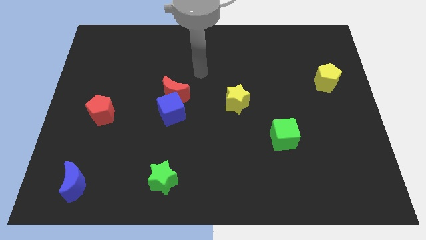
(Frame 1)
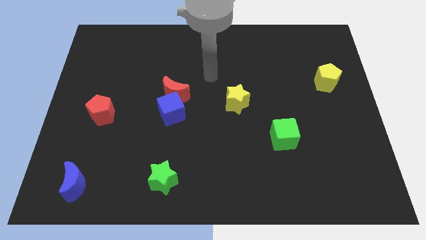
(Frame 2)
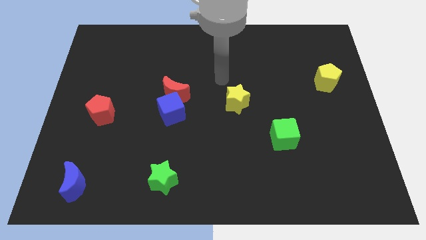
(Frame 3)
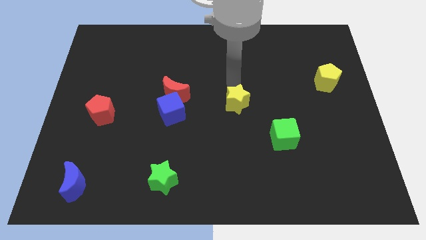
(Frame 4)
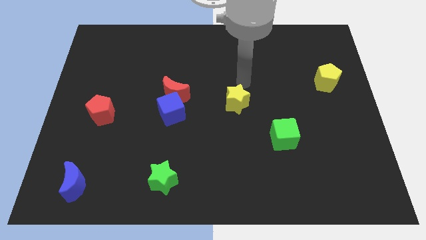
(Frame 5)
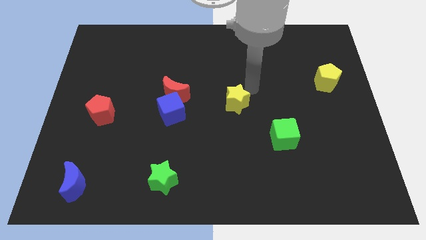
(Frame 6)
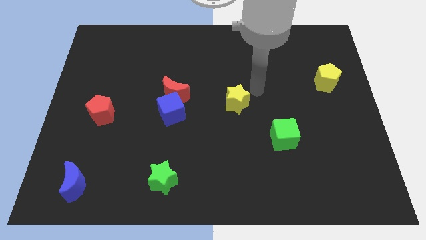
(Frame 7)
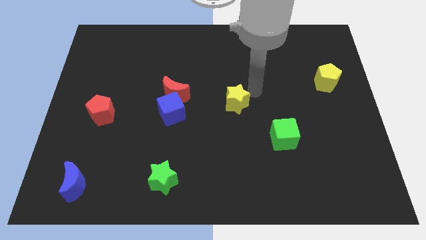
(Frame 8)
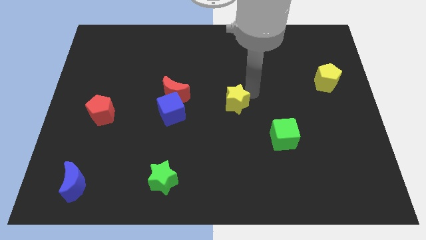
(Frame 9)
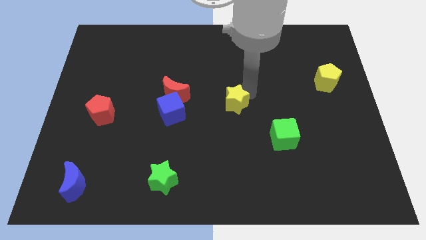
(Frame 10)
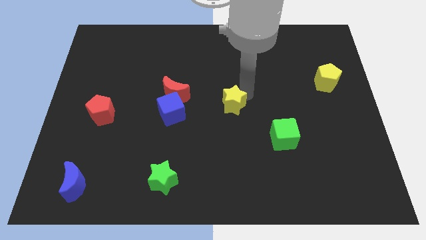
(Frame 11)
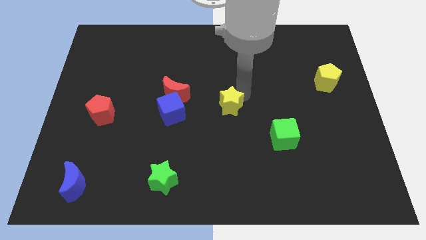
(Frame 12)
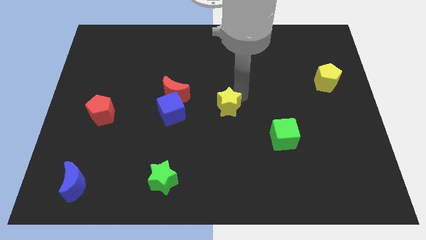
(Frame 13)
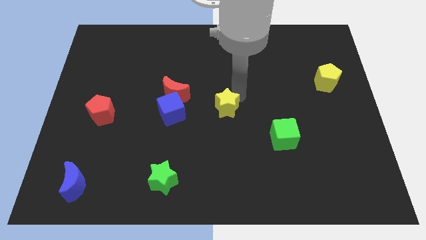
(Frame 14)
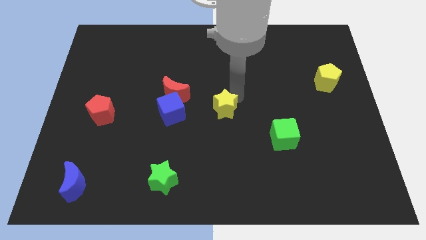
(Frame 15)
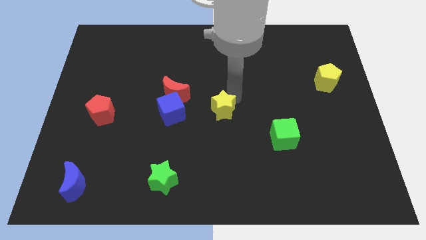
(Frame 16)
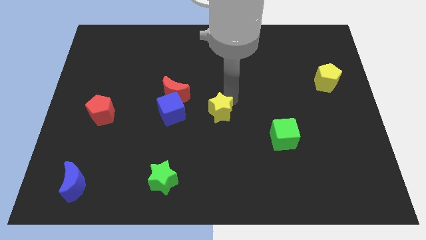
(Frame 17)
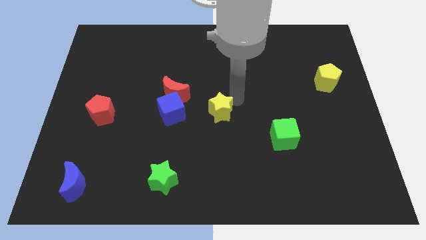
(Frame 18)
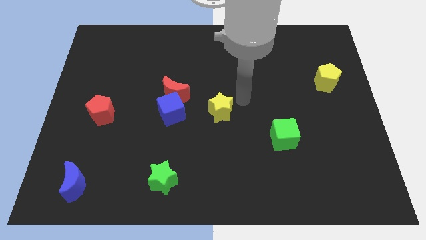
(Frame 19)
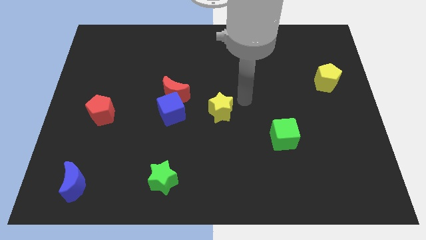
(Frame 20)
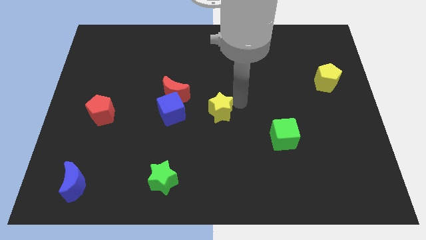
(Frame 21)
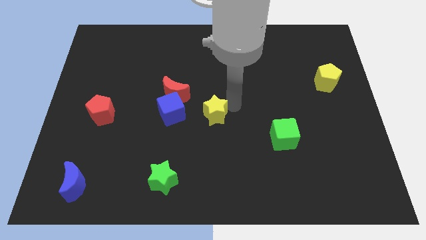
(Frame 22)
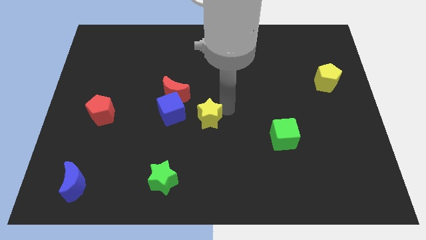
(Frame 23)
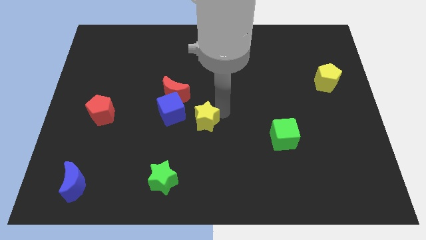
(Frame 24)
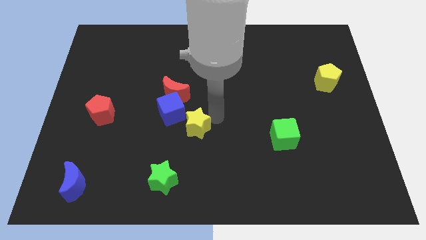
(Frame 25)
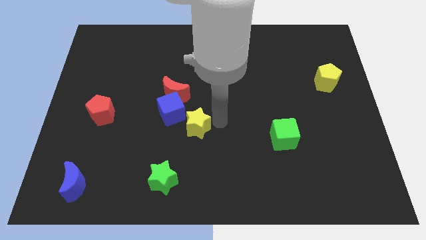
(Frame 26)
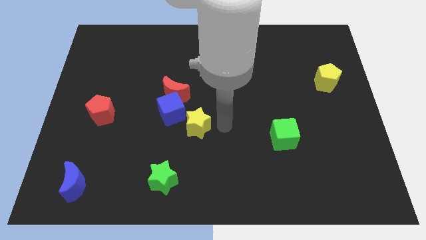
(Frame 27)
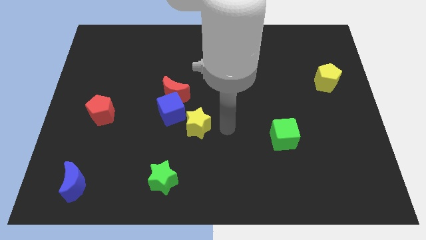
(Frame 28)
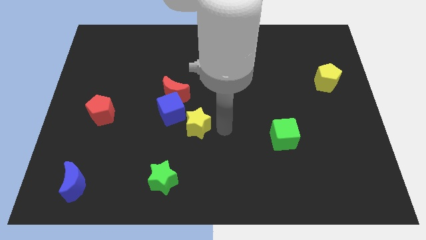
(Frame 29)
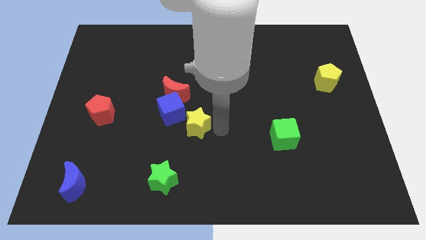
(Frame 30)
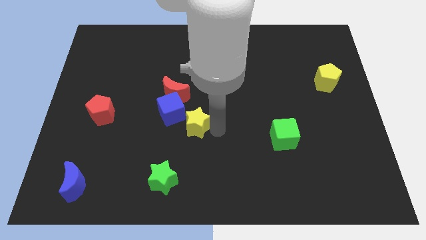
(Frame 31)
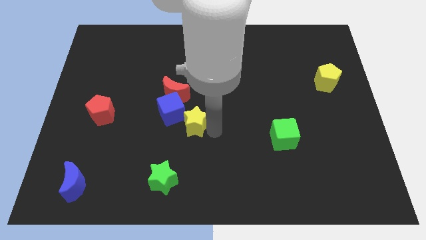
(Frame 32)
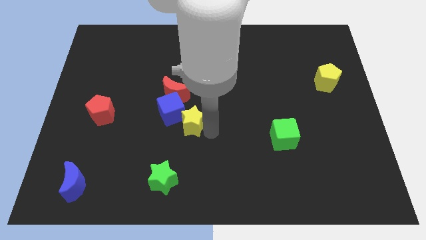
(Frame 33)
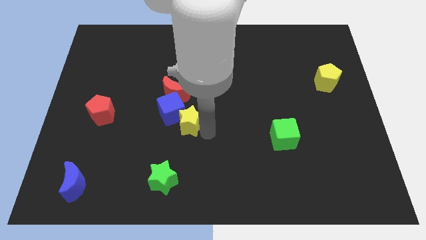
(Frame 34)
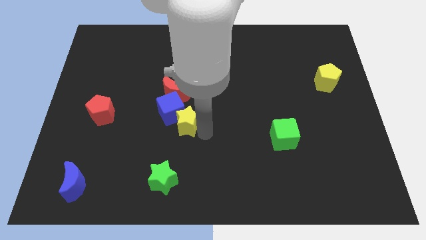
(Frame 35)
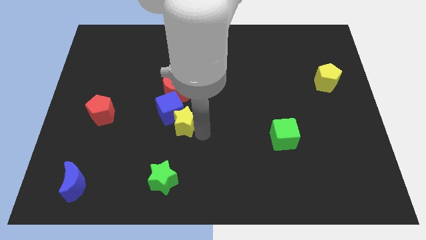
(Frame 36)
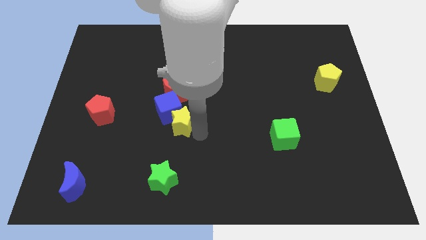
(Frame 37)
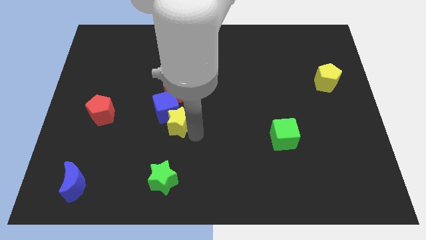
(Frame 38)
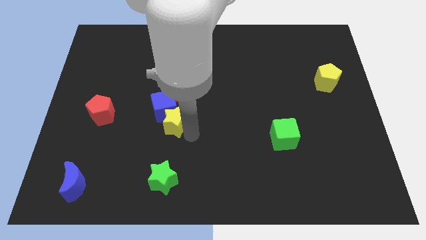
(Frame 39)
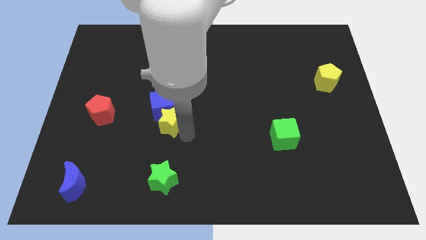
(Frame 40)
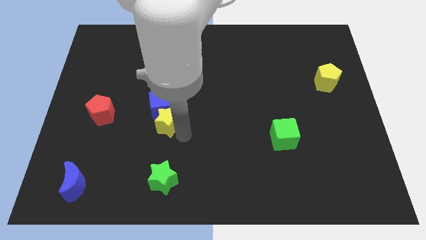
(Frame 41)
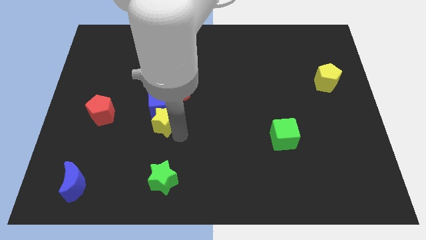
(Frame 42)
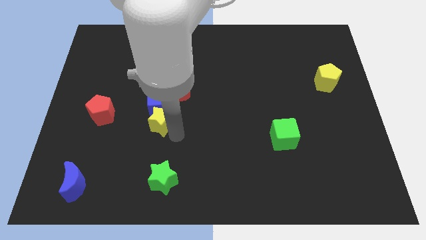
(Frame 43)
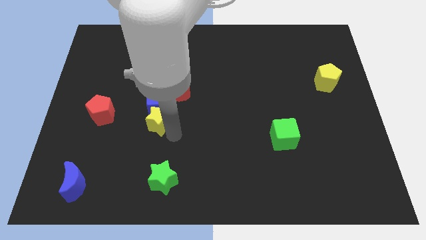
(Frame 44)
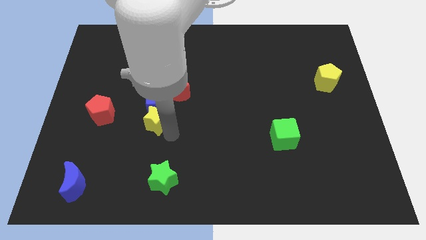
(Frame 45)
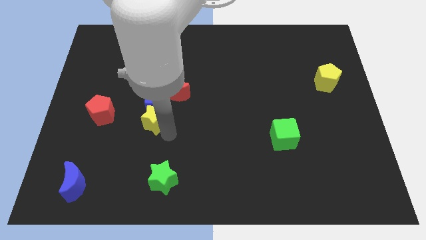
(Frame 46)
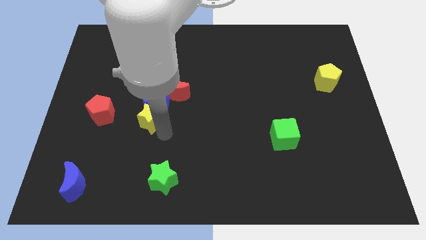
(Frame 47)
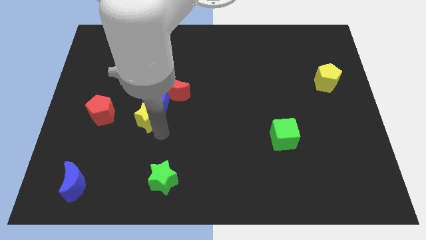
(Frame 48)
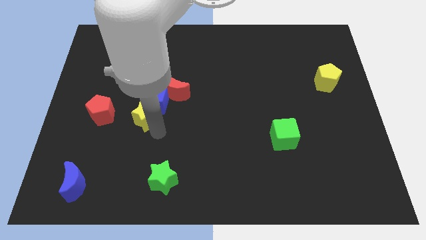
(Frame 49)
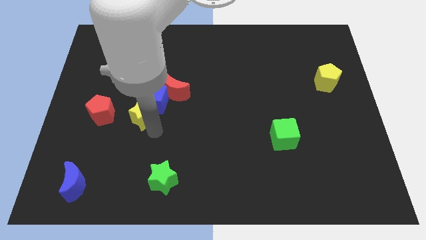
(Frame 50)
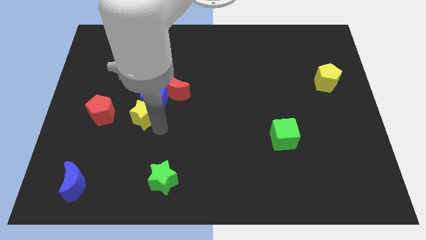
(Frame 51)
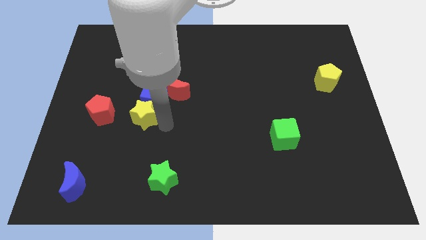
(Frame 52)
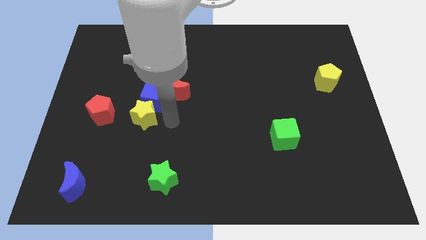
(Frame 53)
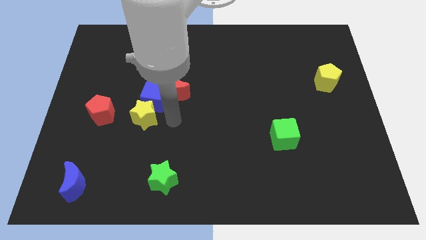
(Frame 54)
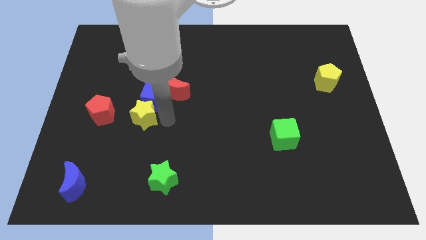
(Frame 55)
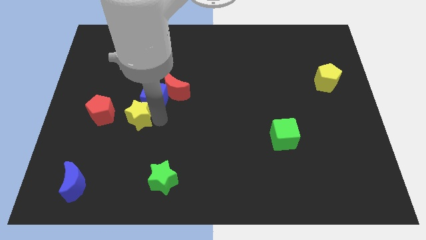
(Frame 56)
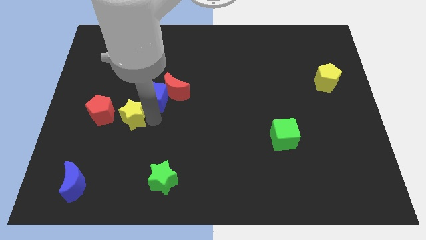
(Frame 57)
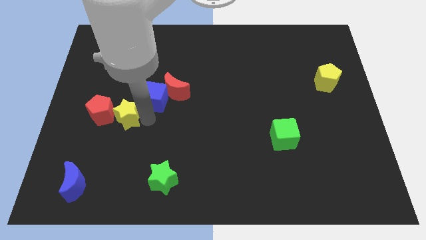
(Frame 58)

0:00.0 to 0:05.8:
put the yellow star next to the red pentagon

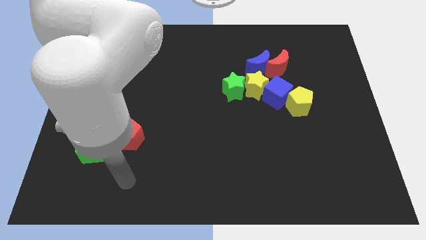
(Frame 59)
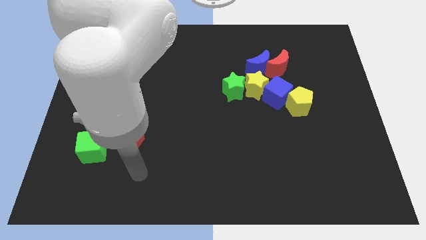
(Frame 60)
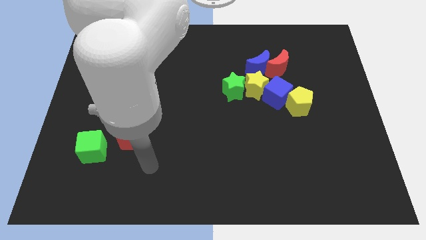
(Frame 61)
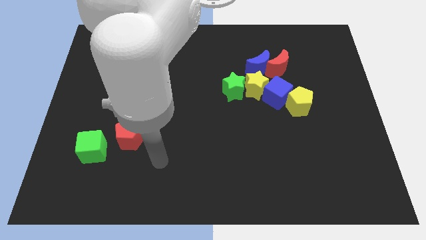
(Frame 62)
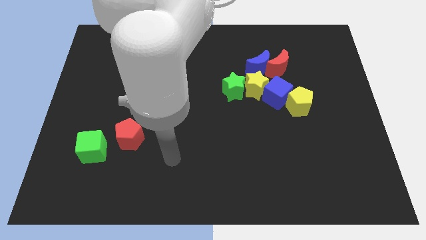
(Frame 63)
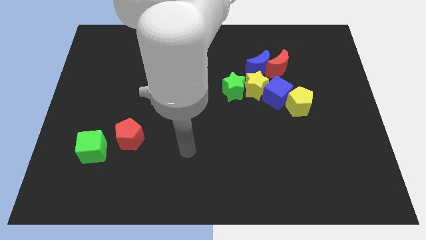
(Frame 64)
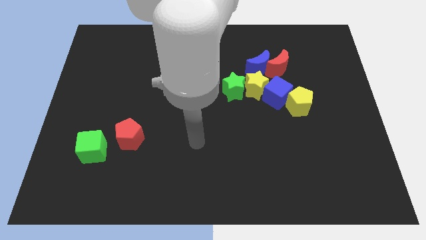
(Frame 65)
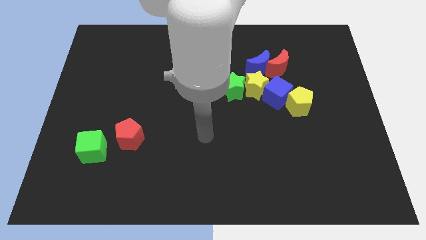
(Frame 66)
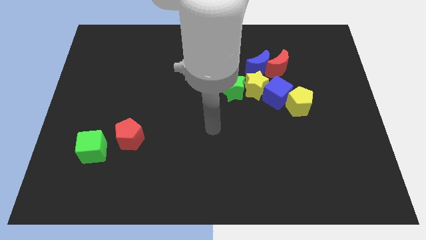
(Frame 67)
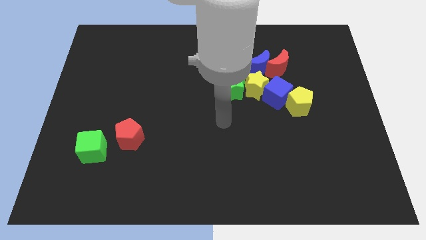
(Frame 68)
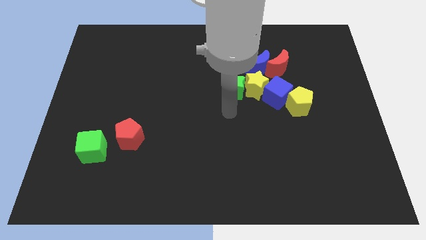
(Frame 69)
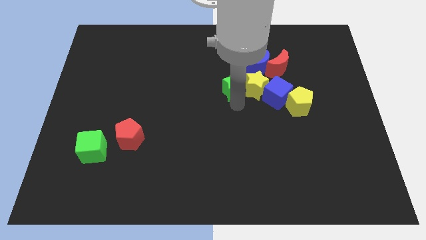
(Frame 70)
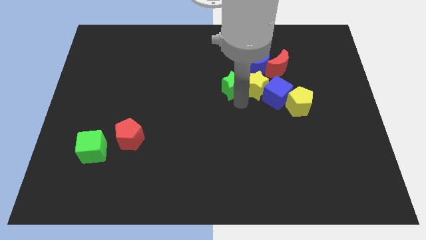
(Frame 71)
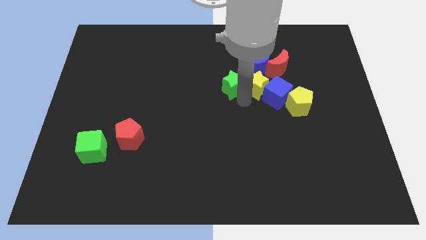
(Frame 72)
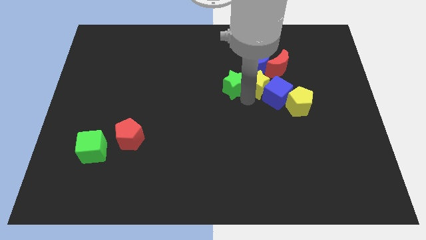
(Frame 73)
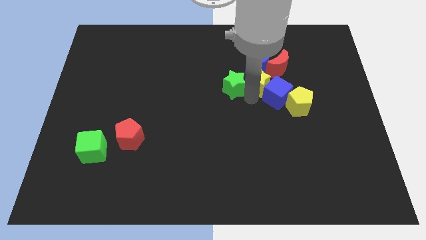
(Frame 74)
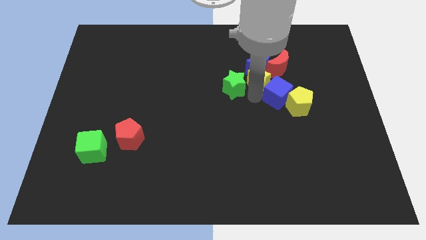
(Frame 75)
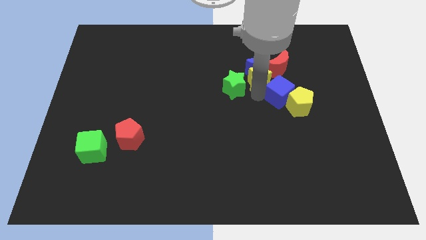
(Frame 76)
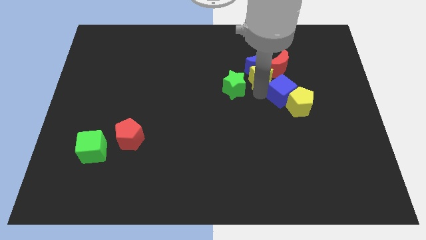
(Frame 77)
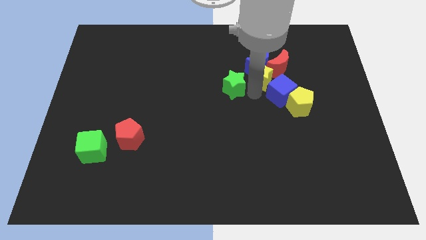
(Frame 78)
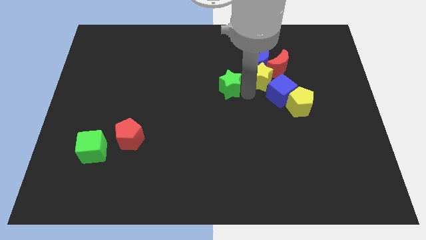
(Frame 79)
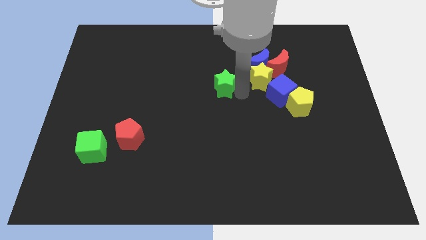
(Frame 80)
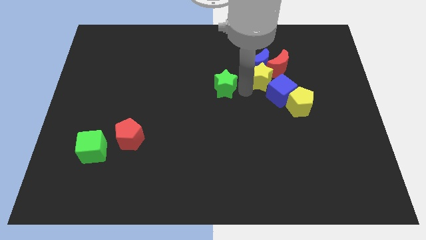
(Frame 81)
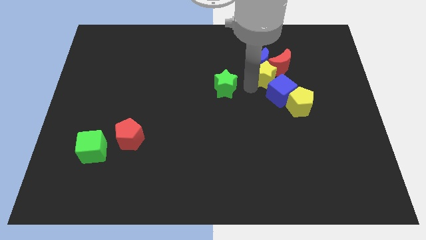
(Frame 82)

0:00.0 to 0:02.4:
move the yellow star next to the red moon
